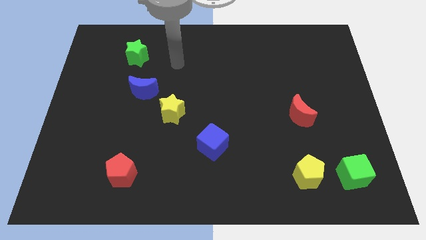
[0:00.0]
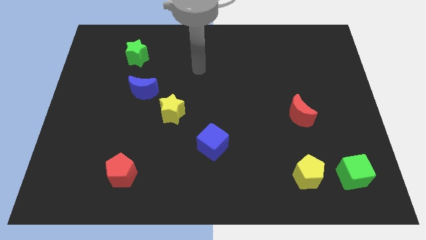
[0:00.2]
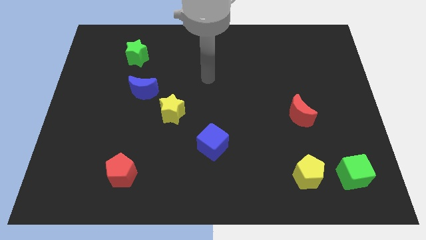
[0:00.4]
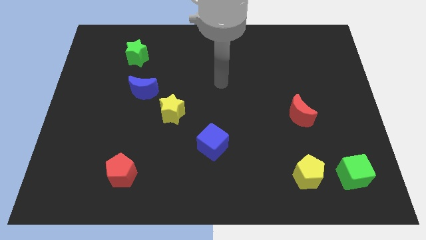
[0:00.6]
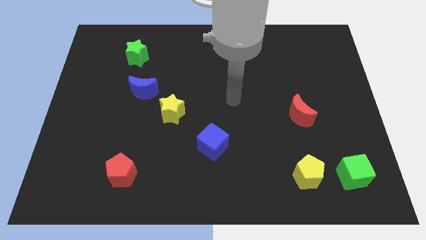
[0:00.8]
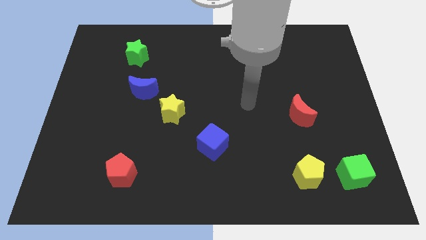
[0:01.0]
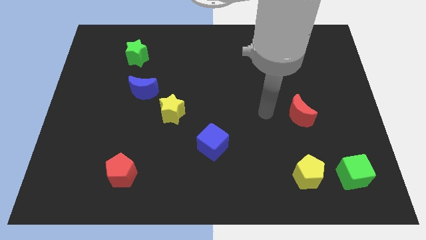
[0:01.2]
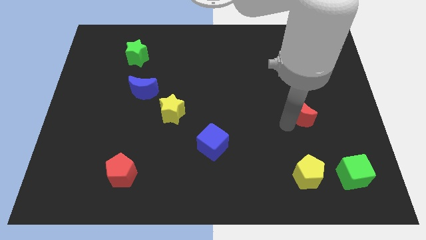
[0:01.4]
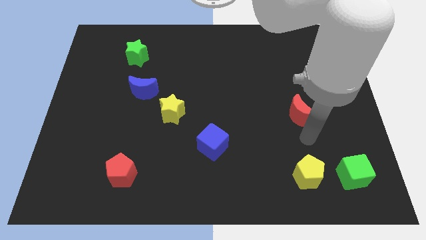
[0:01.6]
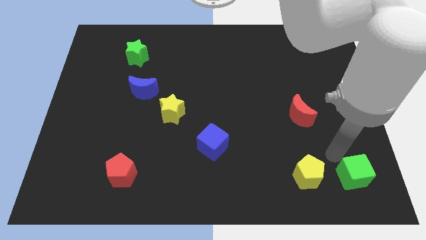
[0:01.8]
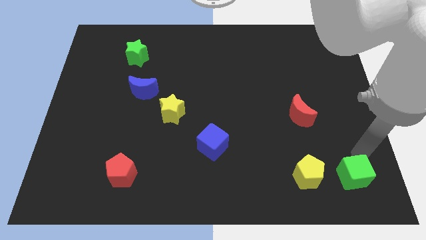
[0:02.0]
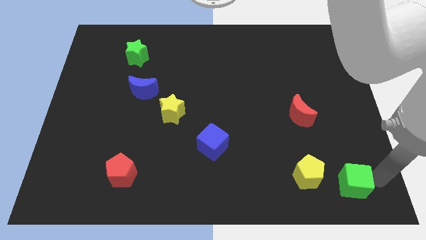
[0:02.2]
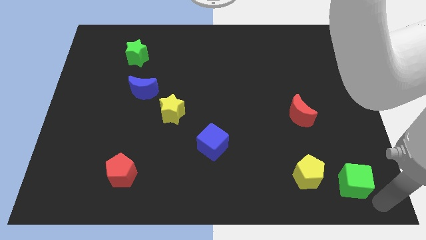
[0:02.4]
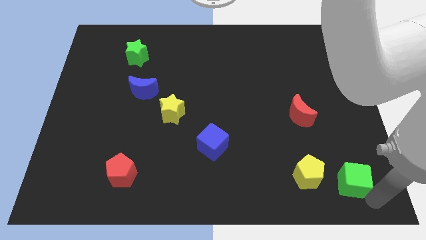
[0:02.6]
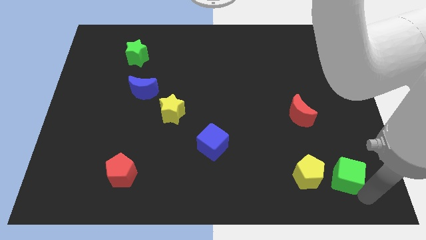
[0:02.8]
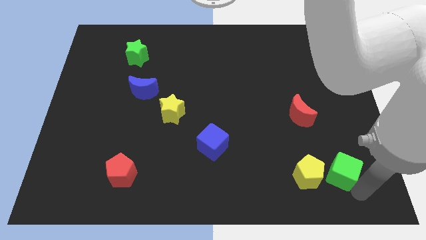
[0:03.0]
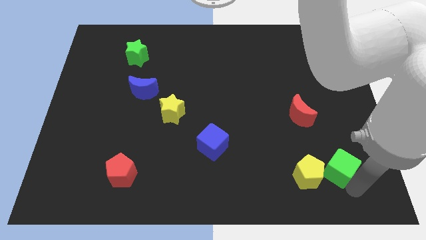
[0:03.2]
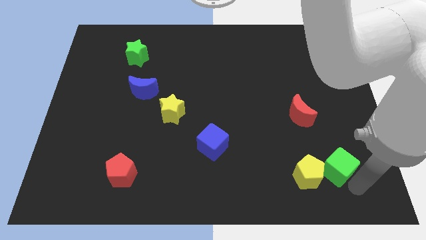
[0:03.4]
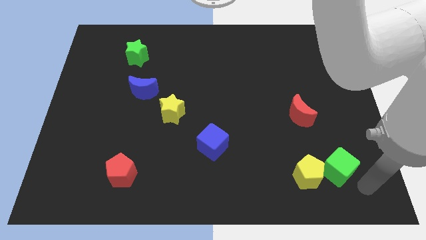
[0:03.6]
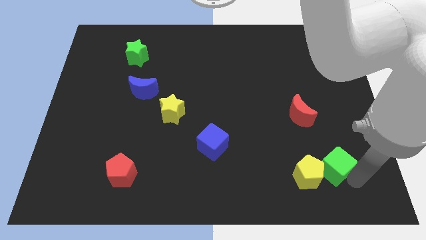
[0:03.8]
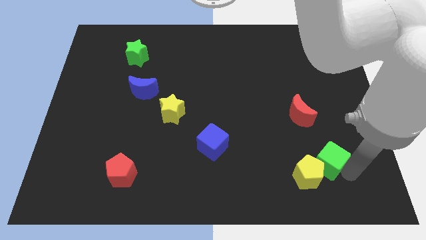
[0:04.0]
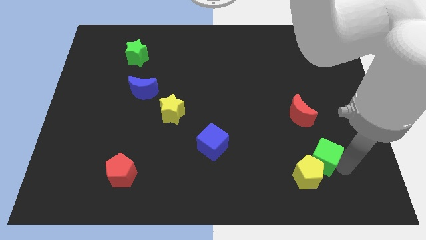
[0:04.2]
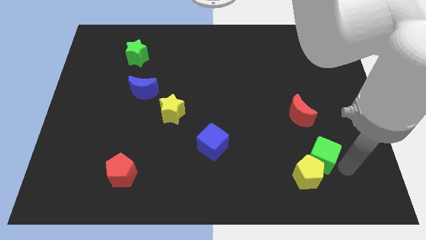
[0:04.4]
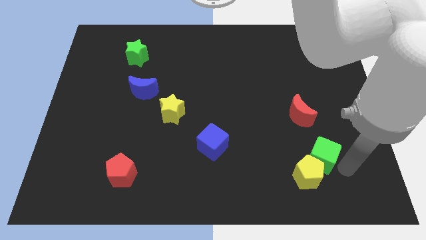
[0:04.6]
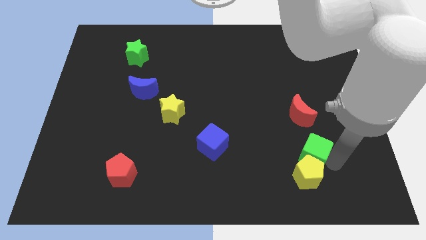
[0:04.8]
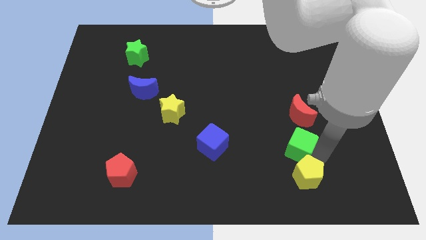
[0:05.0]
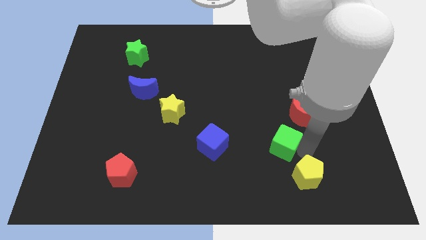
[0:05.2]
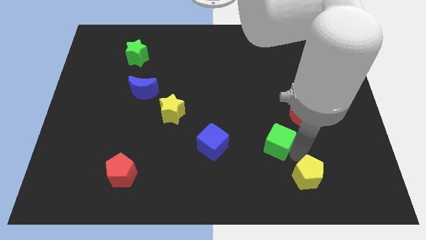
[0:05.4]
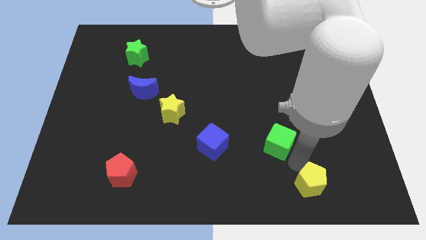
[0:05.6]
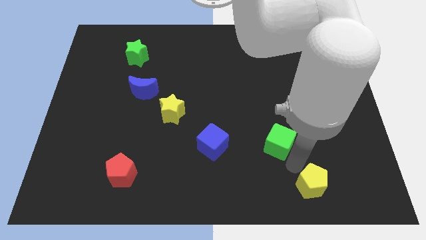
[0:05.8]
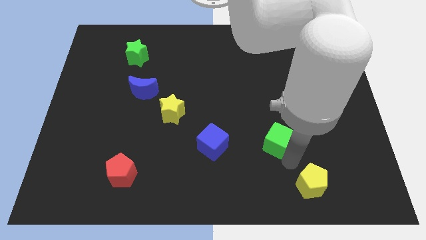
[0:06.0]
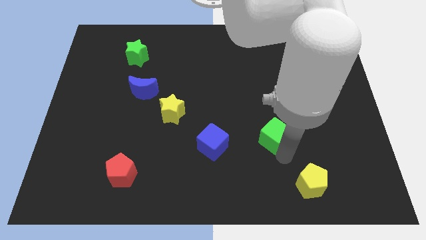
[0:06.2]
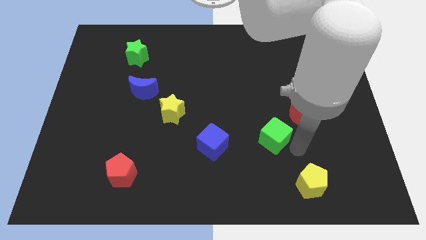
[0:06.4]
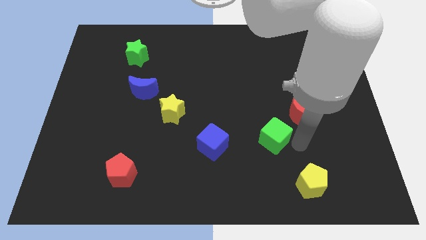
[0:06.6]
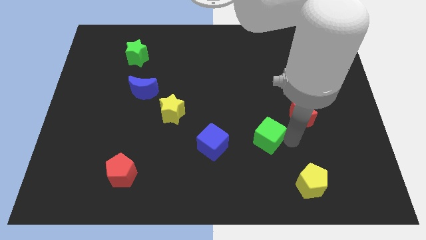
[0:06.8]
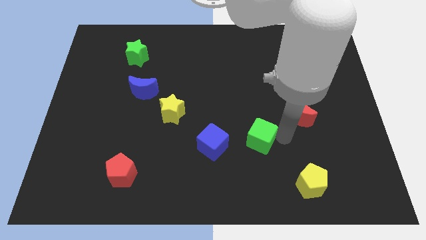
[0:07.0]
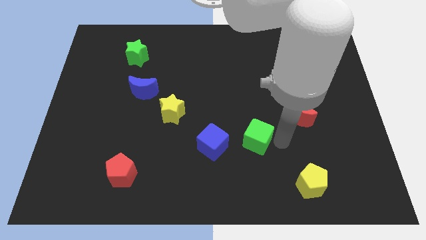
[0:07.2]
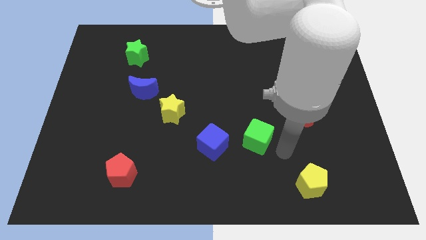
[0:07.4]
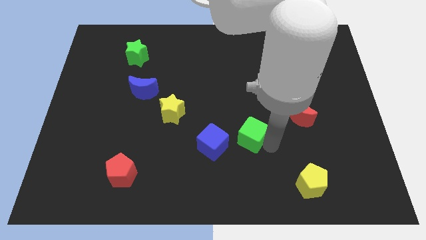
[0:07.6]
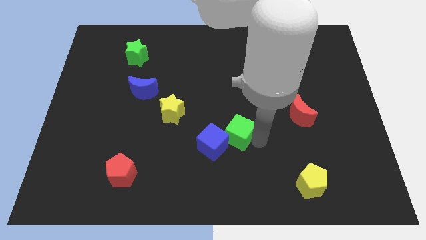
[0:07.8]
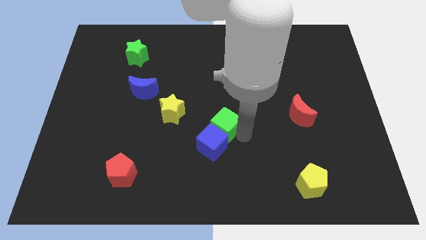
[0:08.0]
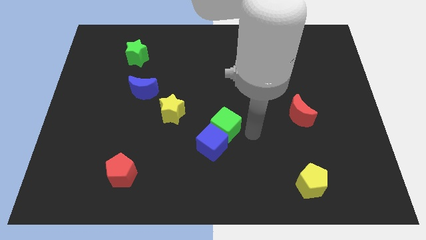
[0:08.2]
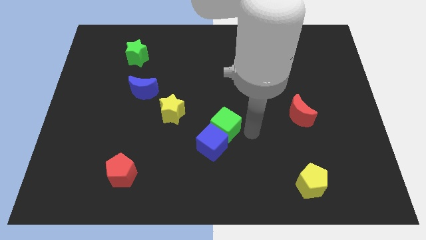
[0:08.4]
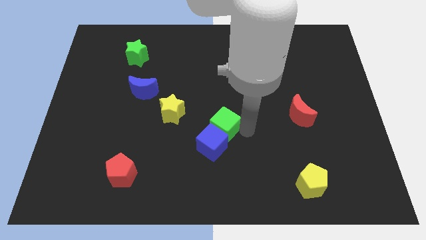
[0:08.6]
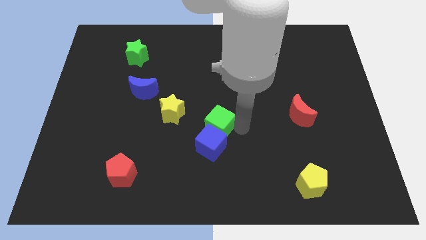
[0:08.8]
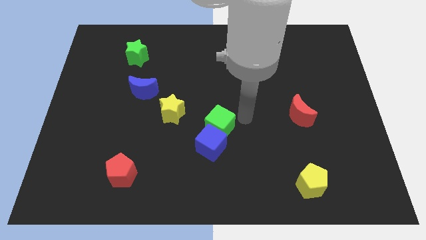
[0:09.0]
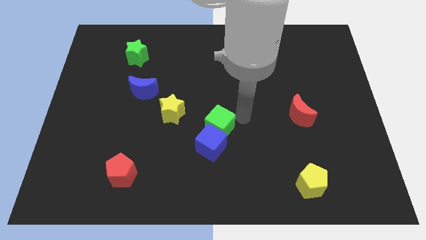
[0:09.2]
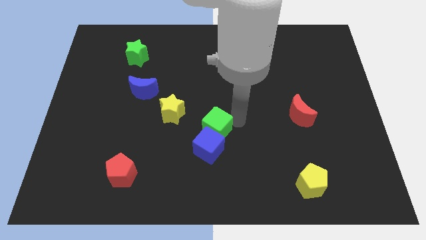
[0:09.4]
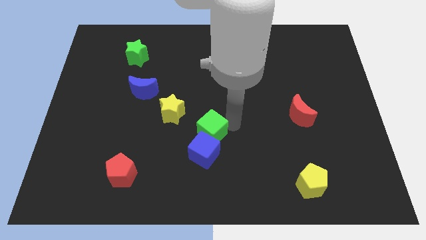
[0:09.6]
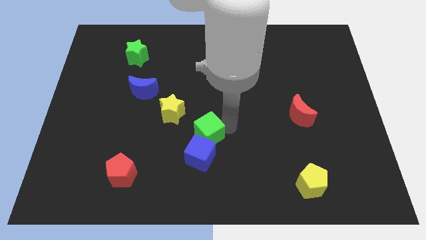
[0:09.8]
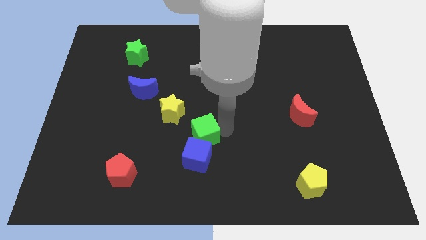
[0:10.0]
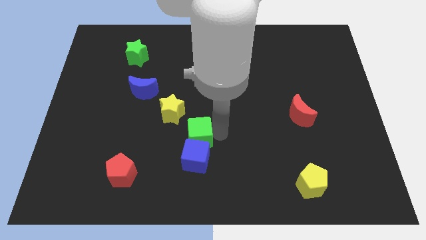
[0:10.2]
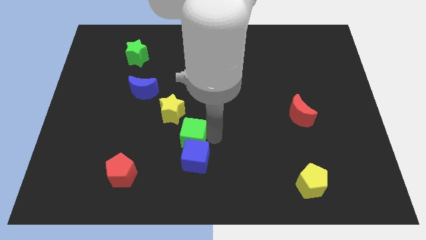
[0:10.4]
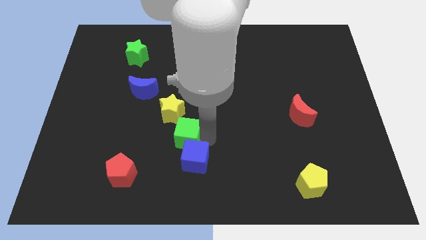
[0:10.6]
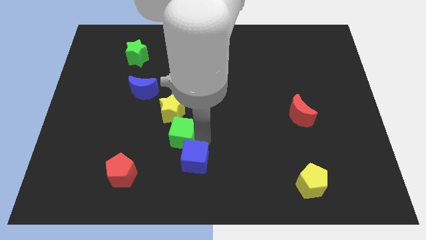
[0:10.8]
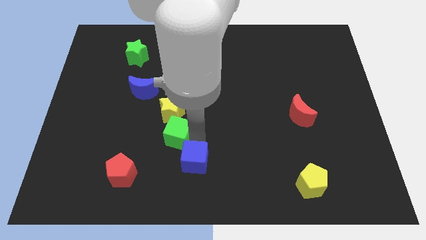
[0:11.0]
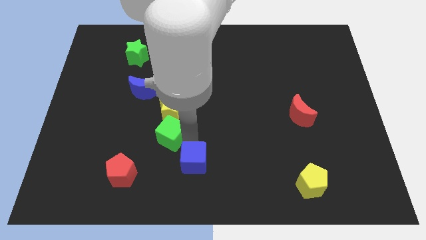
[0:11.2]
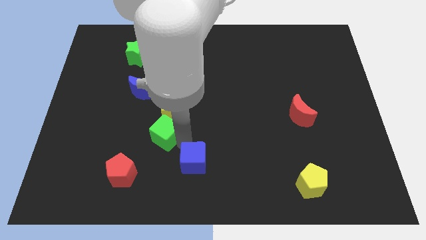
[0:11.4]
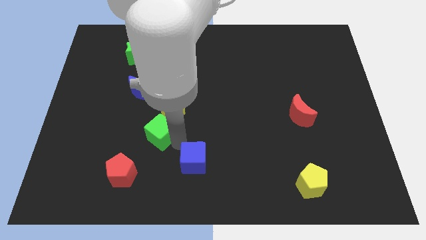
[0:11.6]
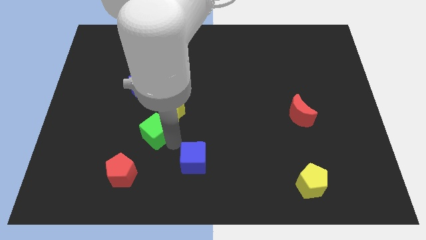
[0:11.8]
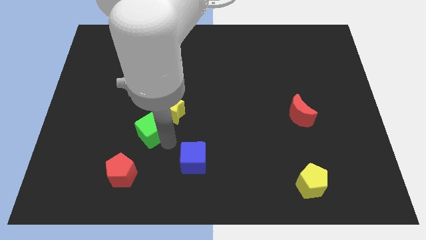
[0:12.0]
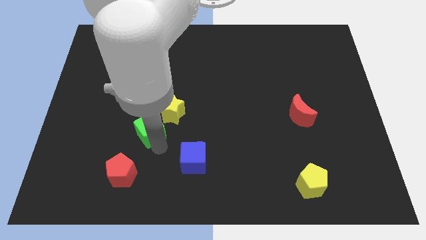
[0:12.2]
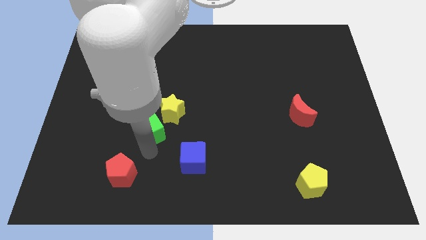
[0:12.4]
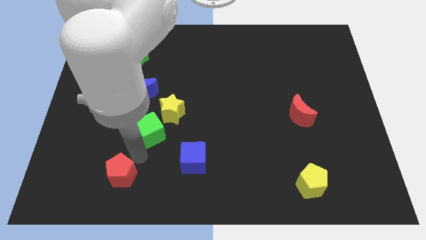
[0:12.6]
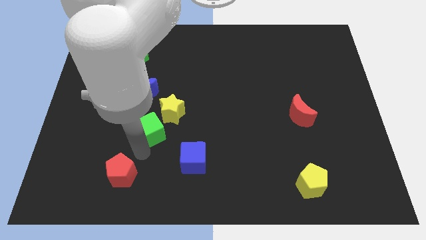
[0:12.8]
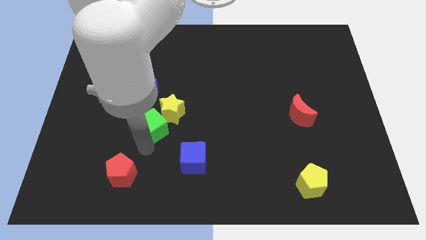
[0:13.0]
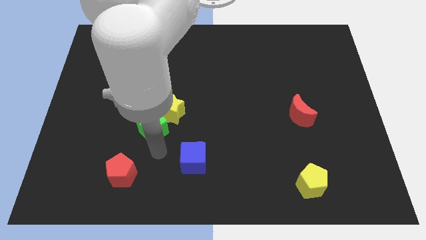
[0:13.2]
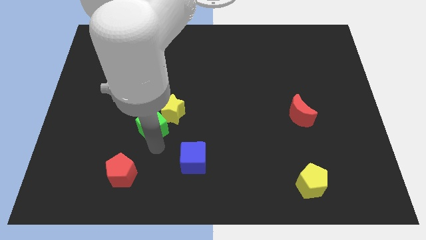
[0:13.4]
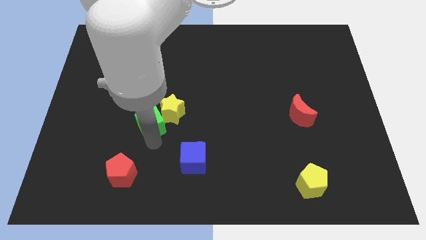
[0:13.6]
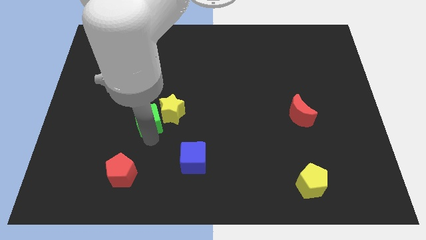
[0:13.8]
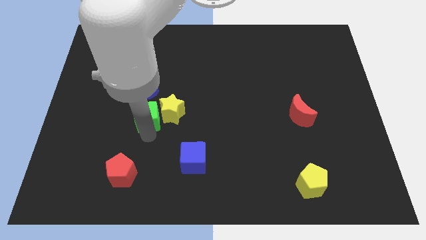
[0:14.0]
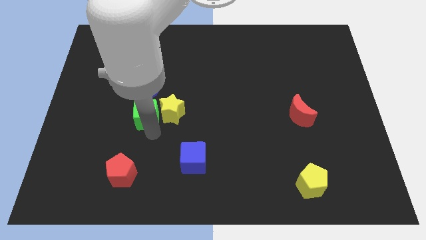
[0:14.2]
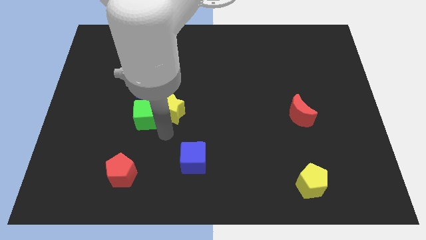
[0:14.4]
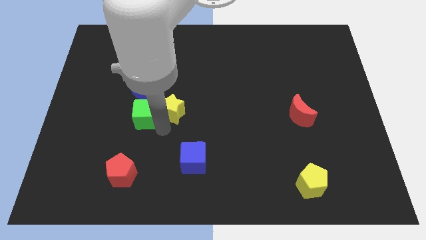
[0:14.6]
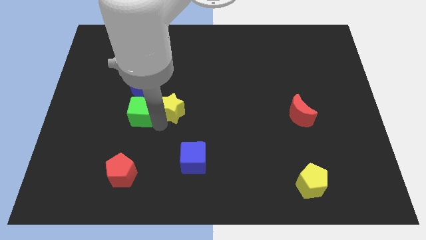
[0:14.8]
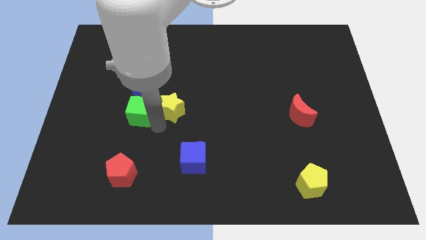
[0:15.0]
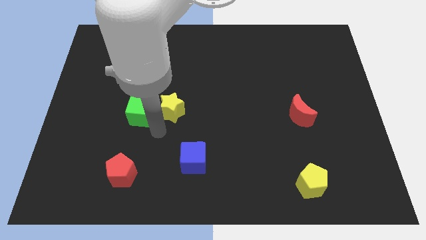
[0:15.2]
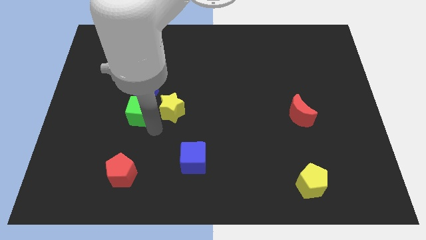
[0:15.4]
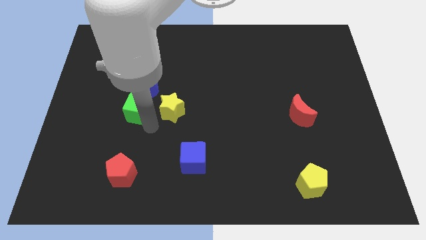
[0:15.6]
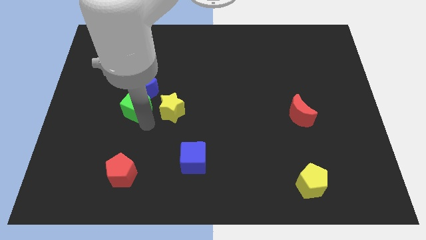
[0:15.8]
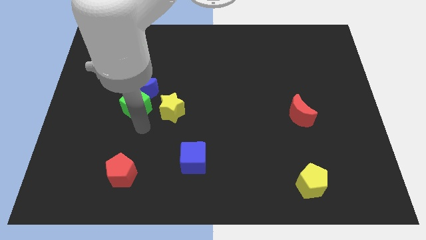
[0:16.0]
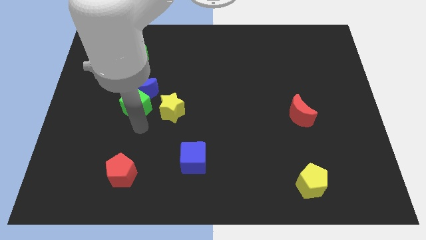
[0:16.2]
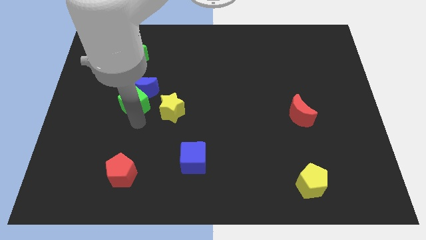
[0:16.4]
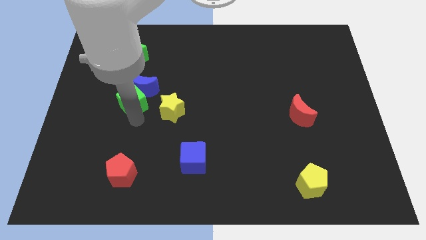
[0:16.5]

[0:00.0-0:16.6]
slide the green cube below the green star
